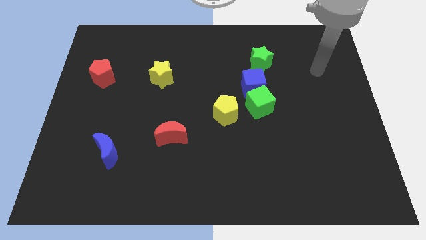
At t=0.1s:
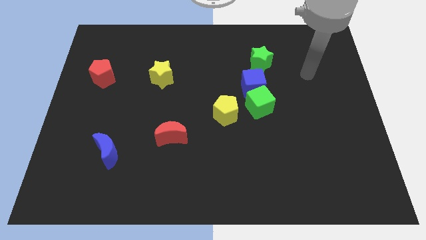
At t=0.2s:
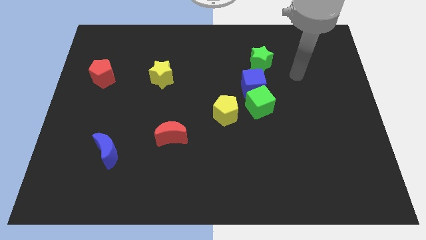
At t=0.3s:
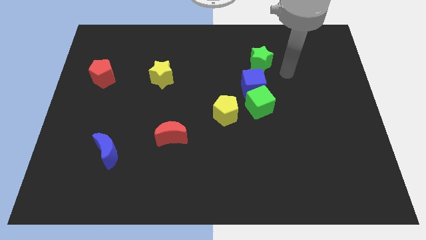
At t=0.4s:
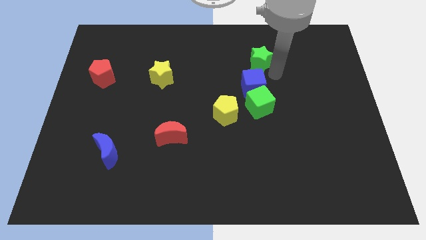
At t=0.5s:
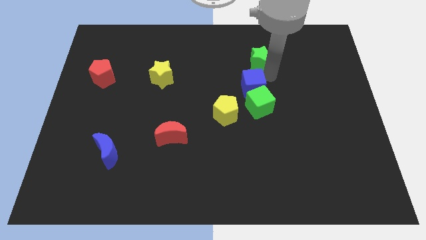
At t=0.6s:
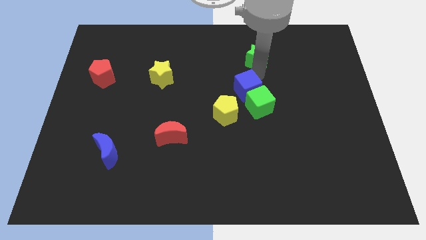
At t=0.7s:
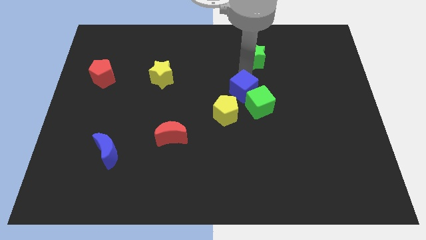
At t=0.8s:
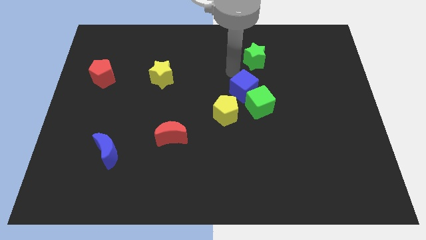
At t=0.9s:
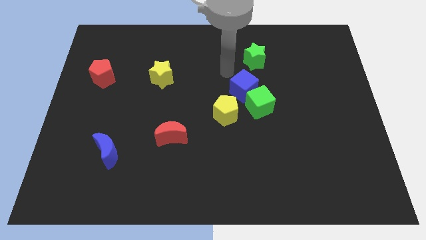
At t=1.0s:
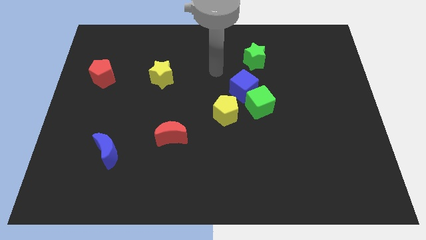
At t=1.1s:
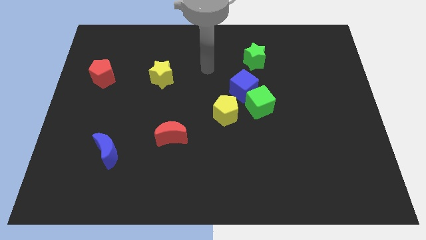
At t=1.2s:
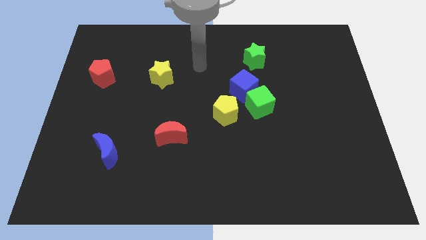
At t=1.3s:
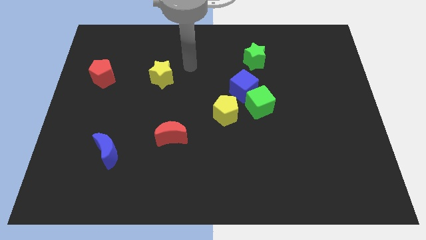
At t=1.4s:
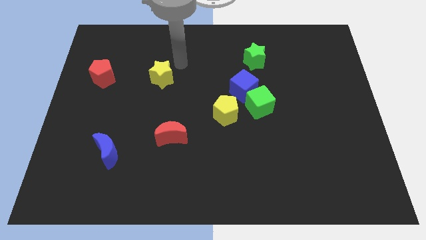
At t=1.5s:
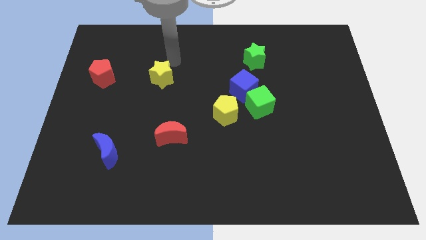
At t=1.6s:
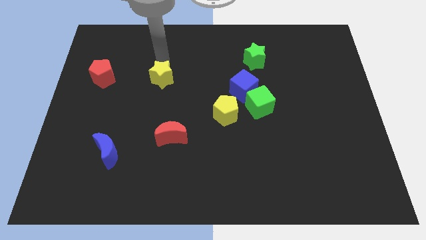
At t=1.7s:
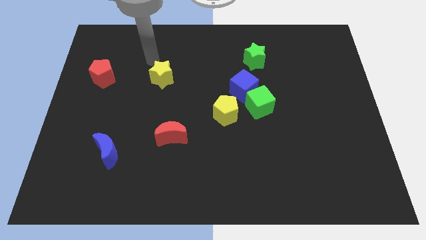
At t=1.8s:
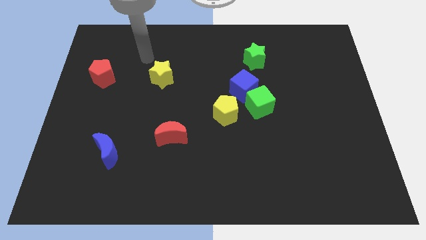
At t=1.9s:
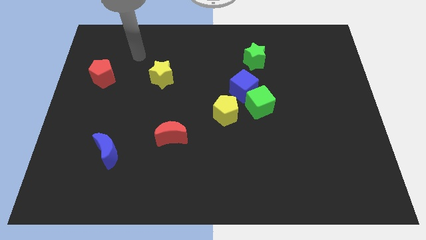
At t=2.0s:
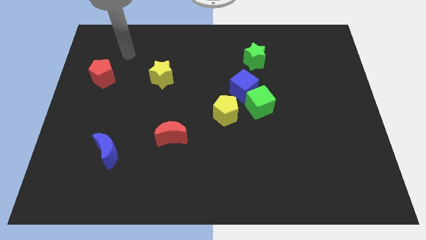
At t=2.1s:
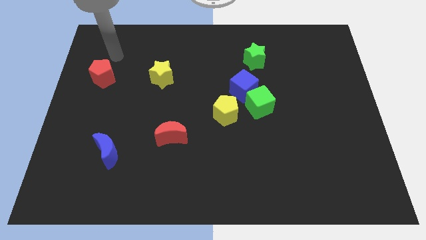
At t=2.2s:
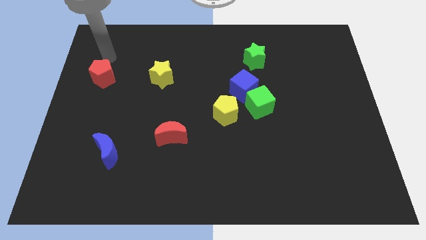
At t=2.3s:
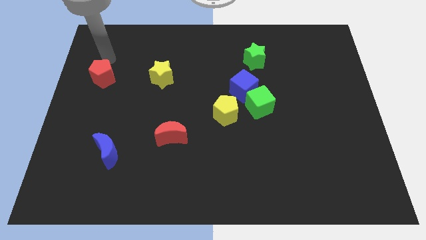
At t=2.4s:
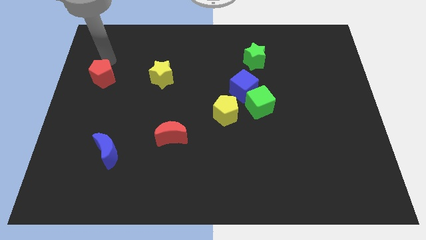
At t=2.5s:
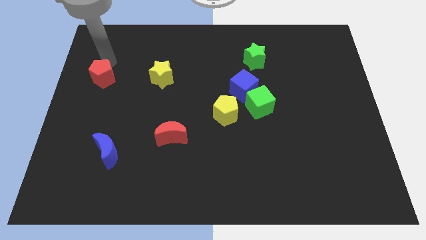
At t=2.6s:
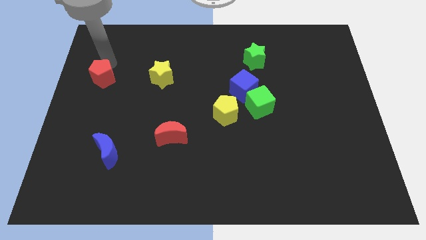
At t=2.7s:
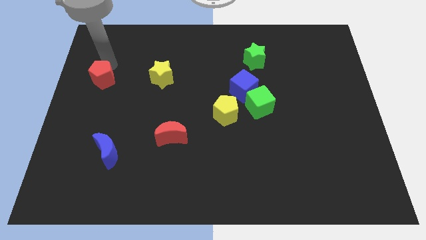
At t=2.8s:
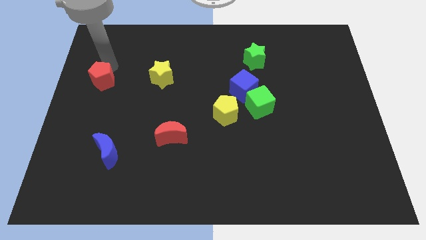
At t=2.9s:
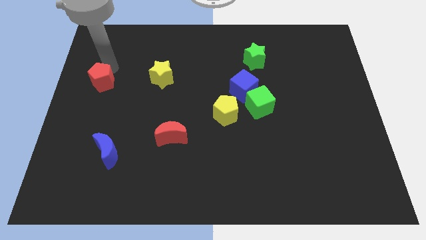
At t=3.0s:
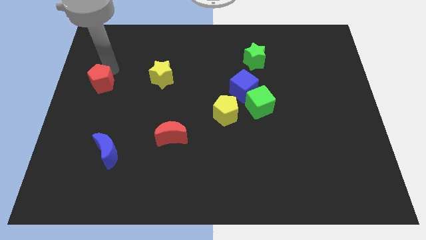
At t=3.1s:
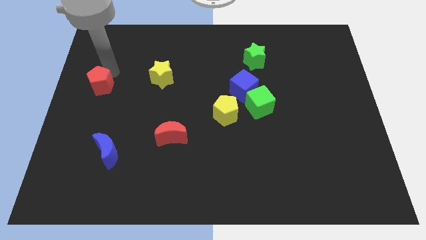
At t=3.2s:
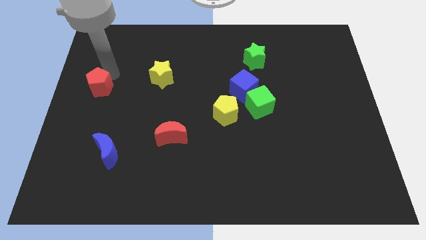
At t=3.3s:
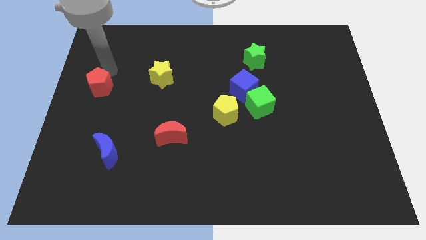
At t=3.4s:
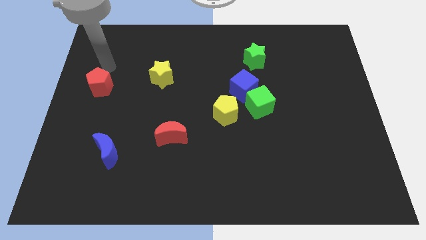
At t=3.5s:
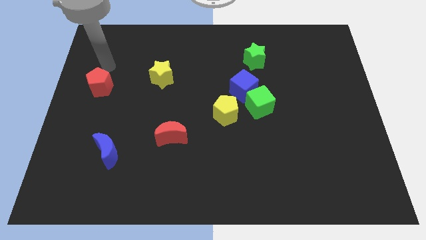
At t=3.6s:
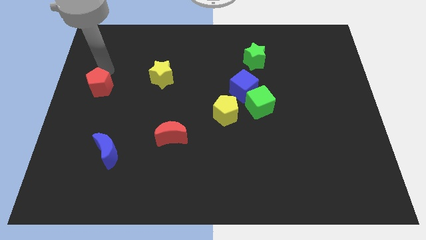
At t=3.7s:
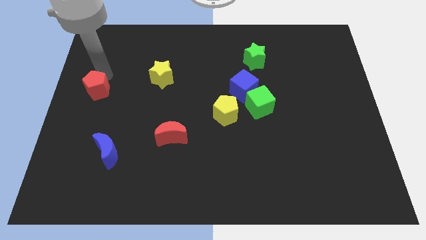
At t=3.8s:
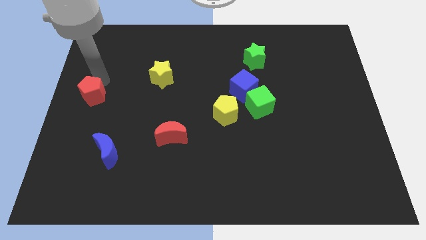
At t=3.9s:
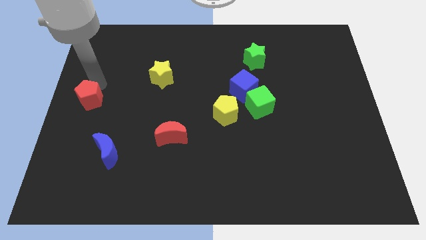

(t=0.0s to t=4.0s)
slightly move the red pentagon down

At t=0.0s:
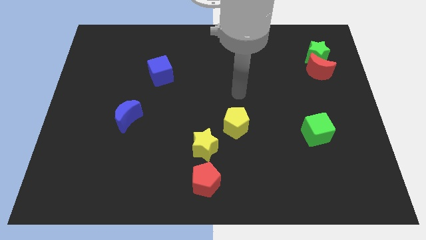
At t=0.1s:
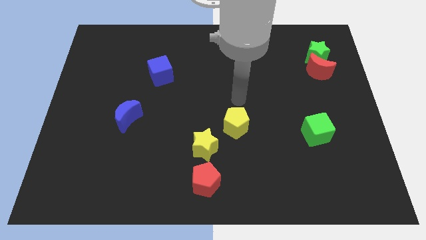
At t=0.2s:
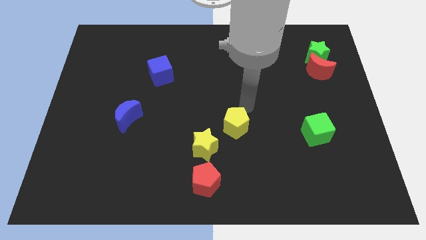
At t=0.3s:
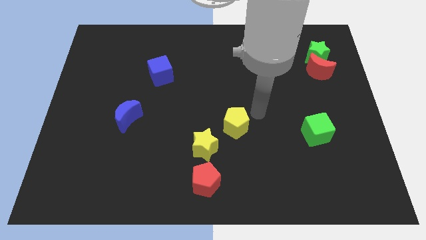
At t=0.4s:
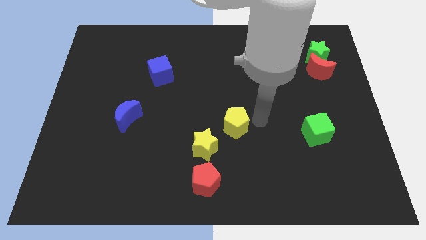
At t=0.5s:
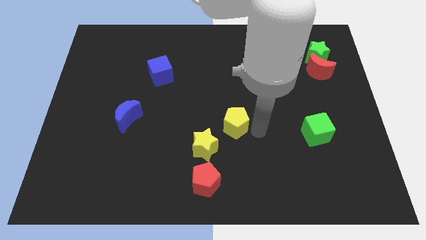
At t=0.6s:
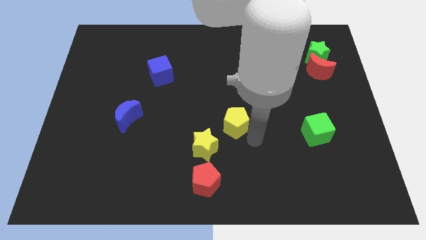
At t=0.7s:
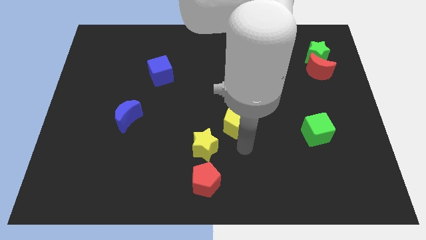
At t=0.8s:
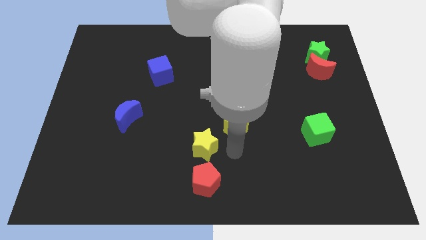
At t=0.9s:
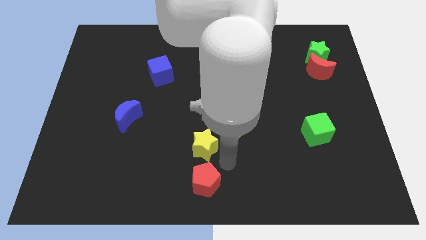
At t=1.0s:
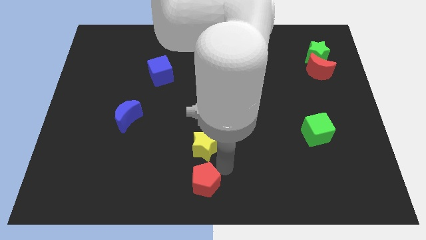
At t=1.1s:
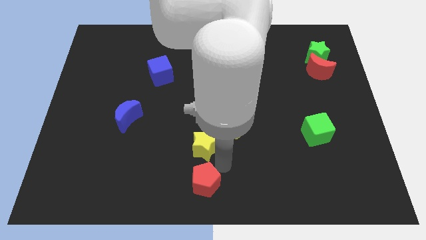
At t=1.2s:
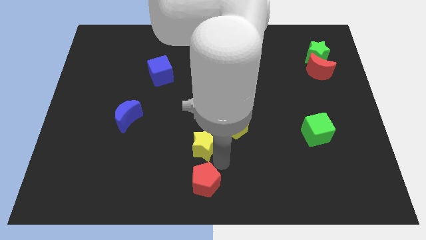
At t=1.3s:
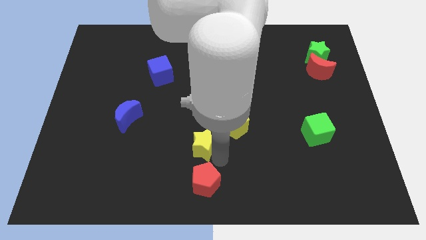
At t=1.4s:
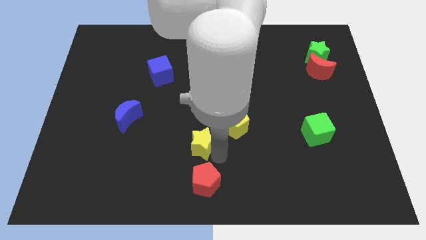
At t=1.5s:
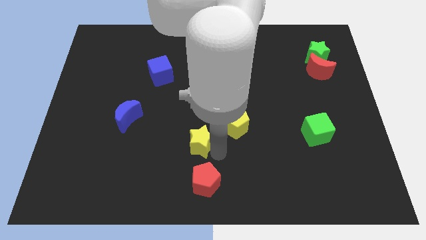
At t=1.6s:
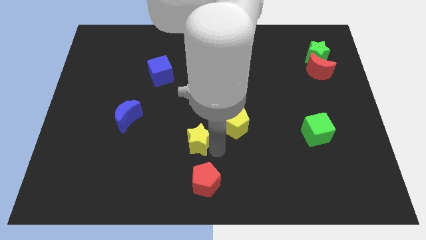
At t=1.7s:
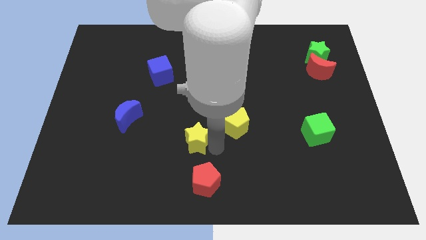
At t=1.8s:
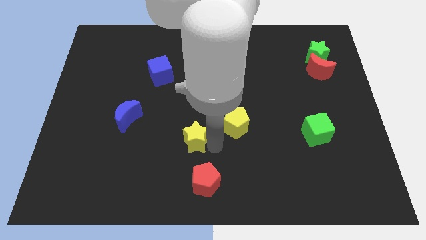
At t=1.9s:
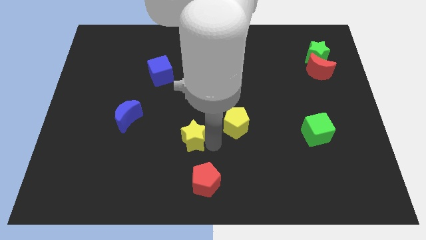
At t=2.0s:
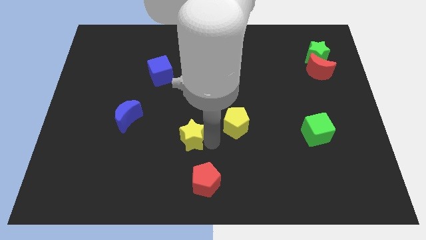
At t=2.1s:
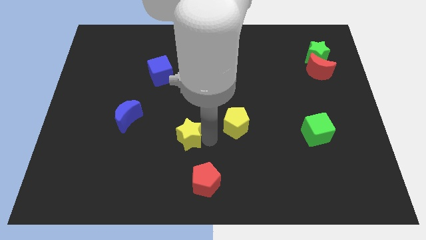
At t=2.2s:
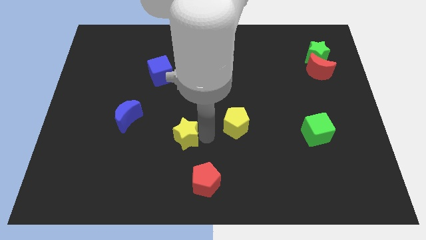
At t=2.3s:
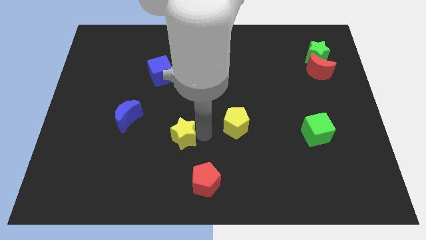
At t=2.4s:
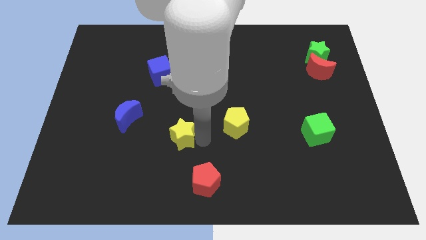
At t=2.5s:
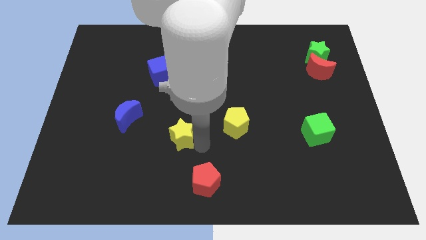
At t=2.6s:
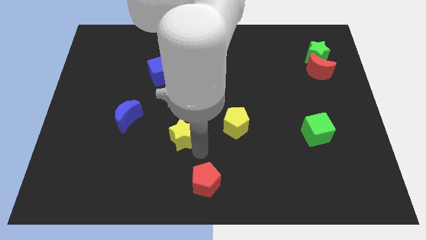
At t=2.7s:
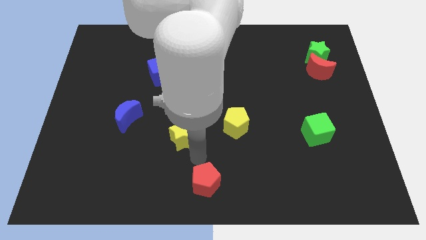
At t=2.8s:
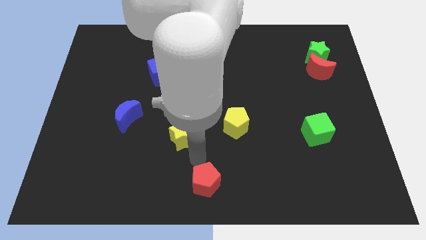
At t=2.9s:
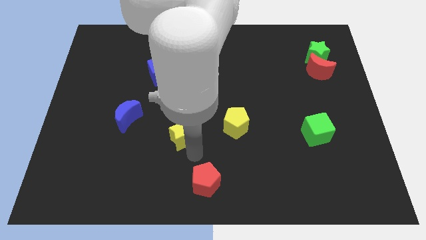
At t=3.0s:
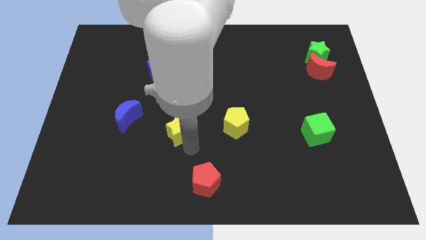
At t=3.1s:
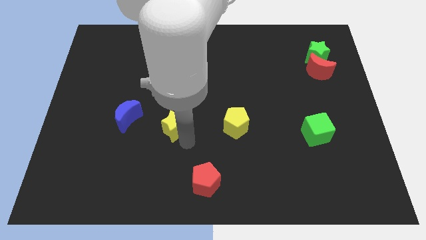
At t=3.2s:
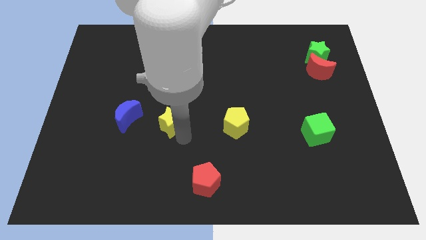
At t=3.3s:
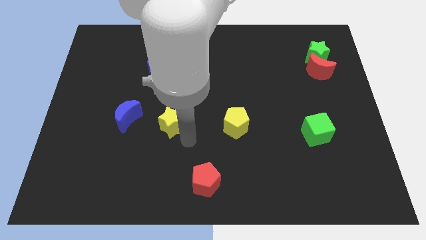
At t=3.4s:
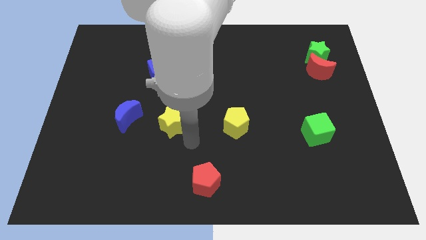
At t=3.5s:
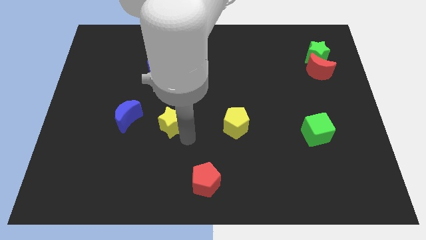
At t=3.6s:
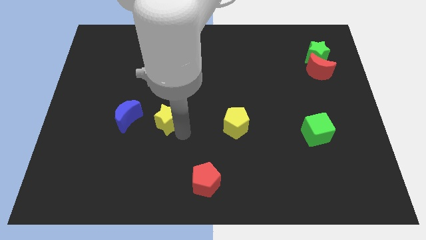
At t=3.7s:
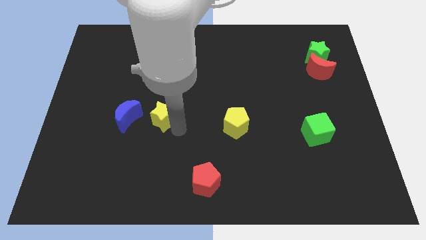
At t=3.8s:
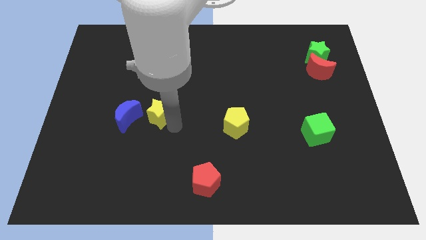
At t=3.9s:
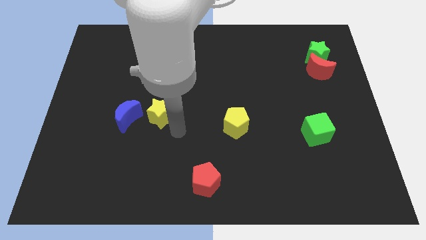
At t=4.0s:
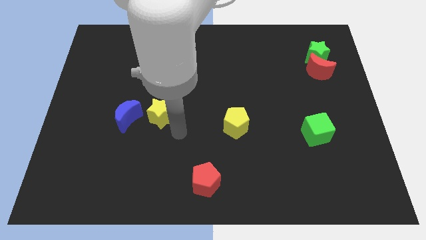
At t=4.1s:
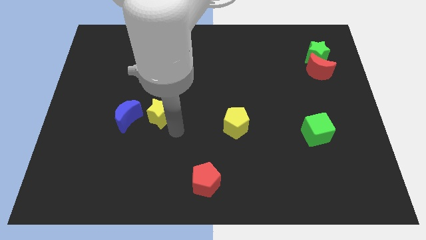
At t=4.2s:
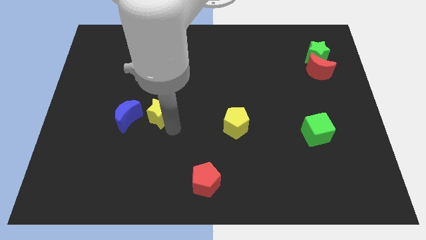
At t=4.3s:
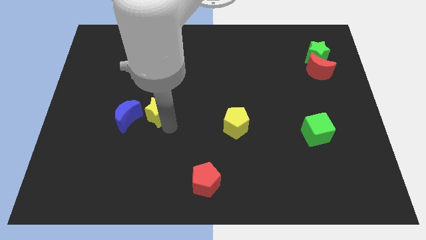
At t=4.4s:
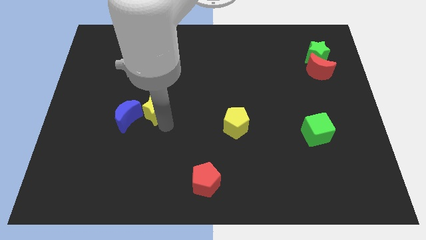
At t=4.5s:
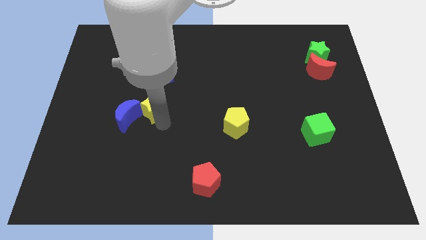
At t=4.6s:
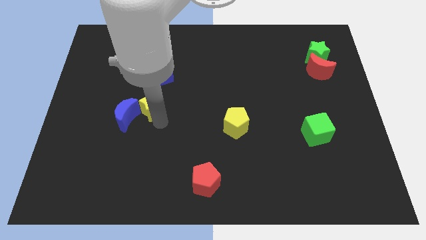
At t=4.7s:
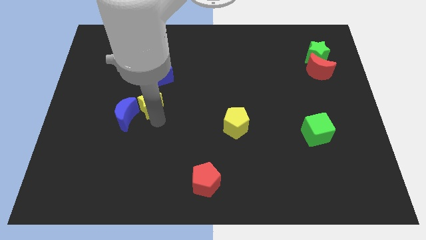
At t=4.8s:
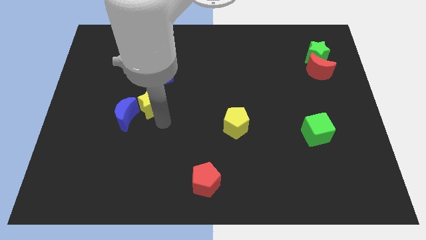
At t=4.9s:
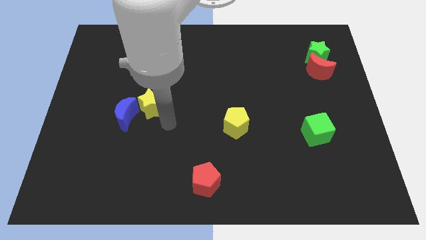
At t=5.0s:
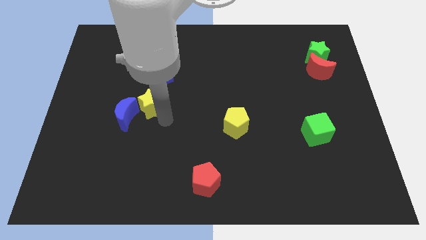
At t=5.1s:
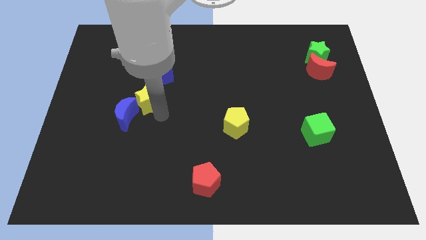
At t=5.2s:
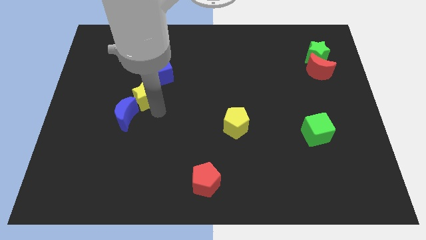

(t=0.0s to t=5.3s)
push the yellow star upwards and then to the left
